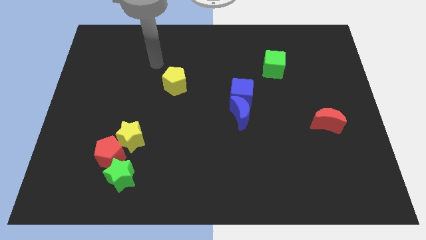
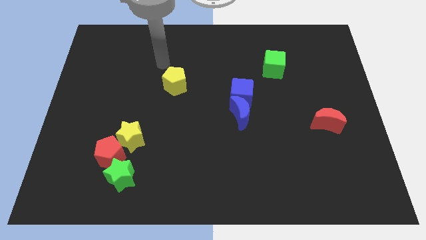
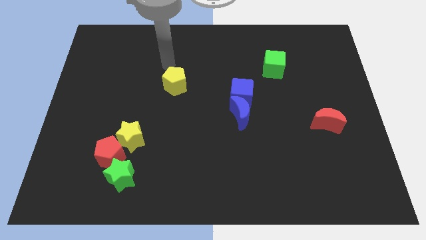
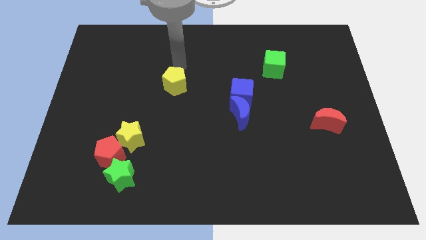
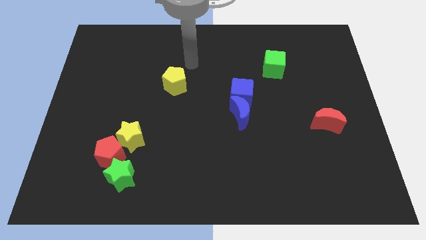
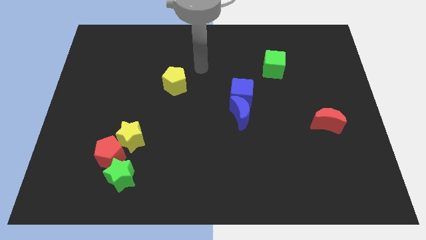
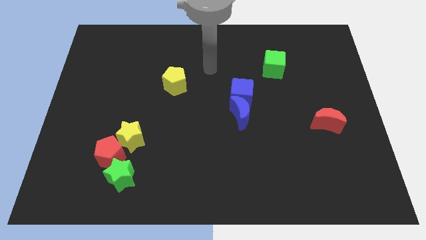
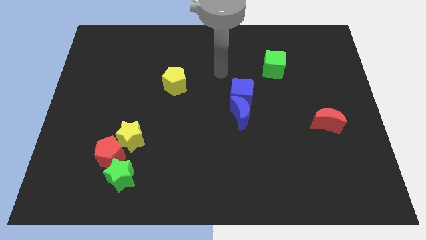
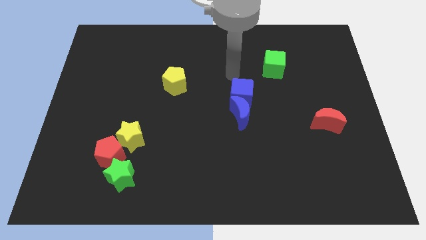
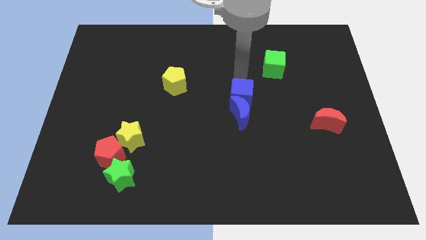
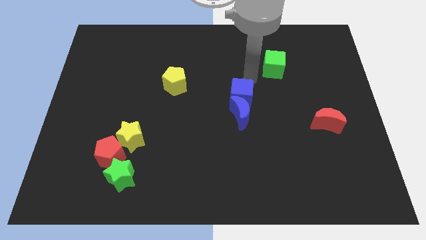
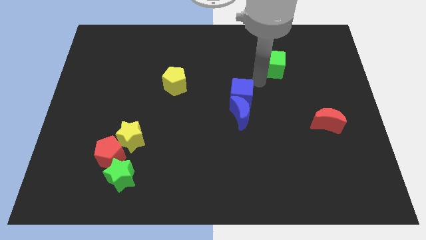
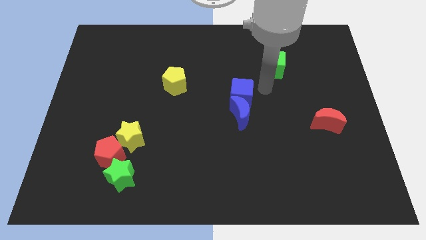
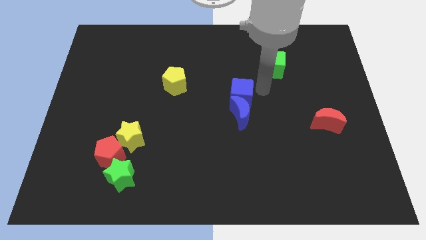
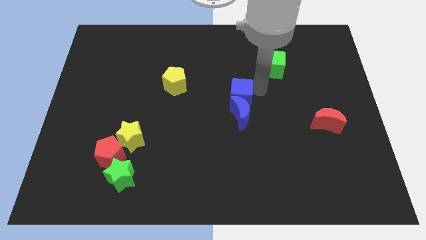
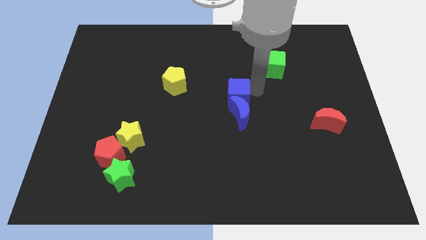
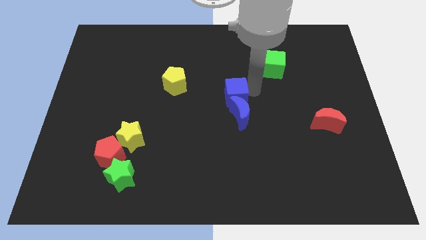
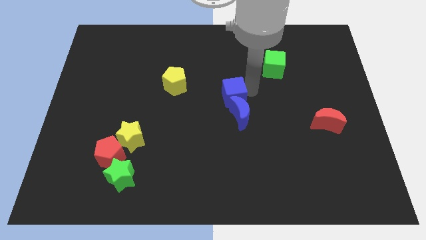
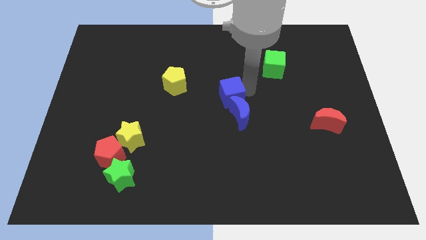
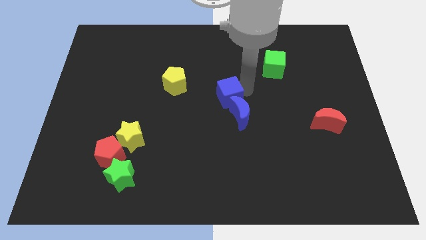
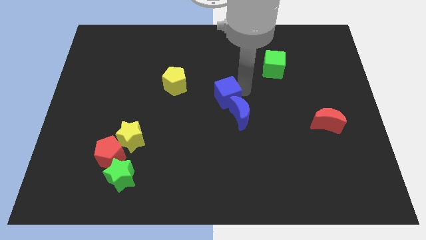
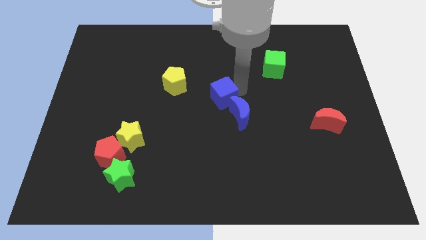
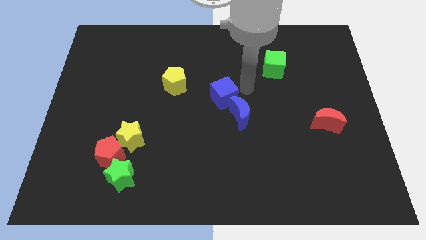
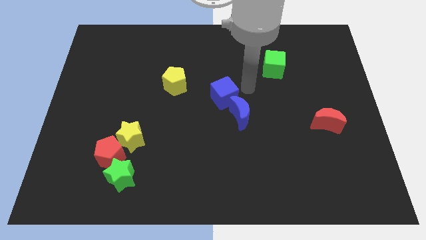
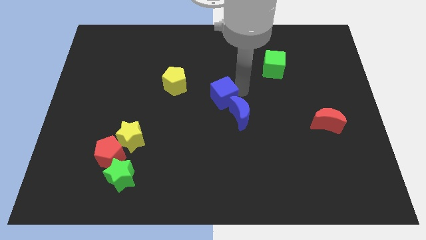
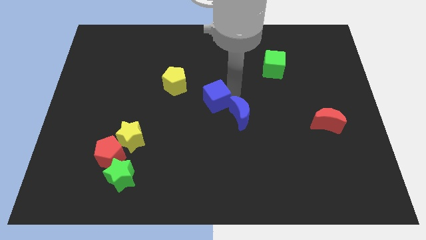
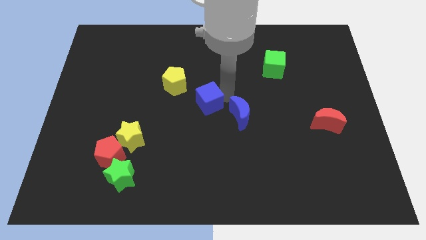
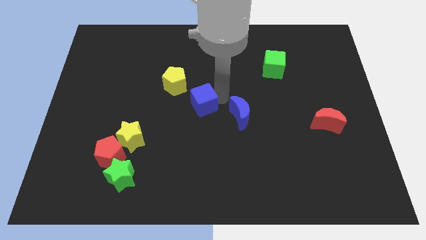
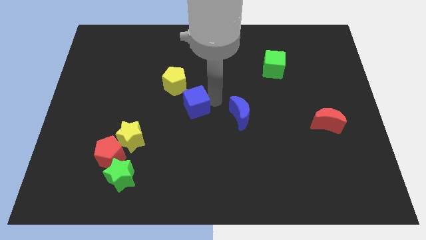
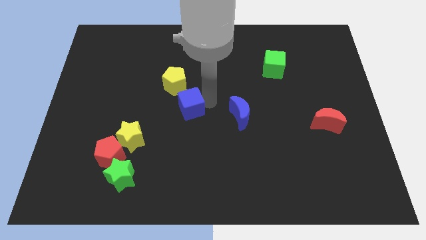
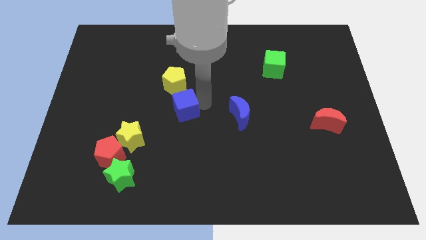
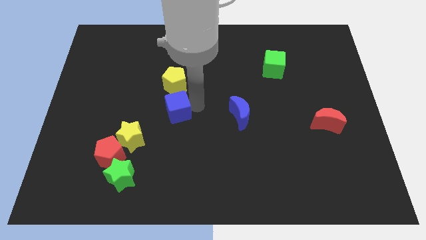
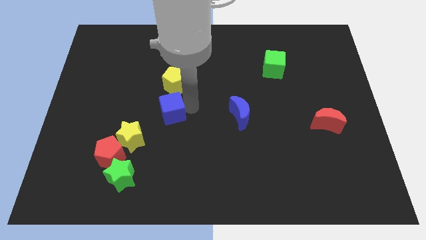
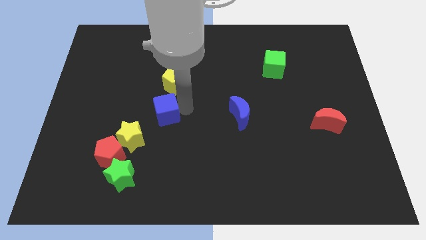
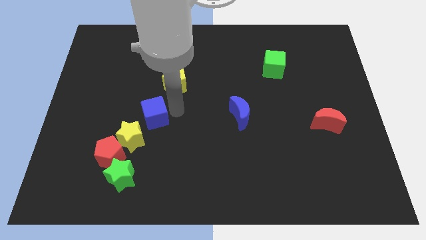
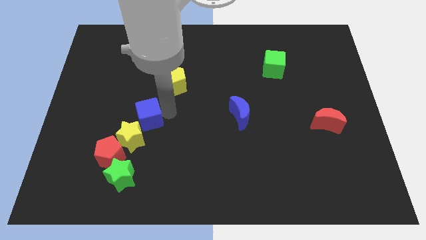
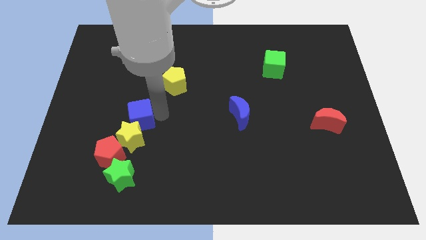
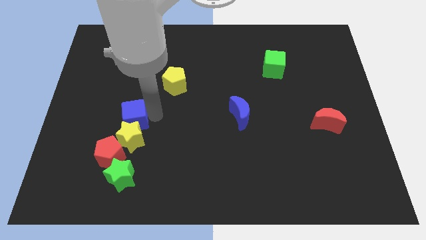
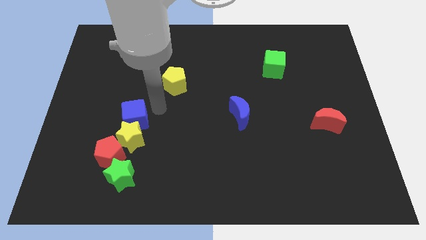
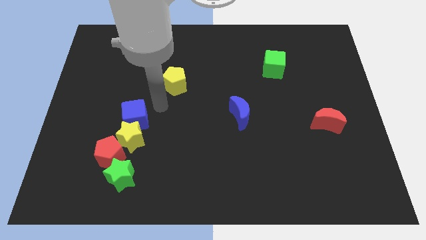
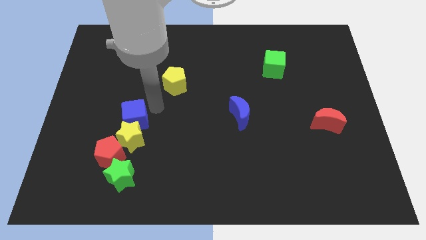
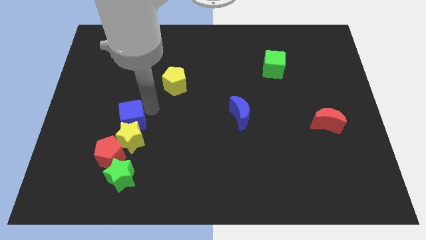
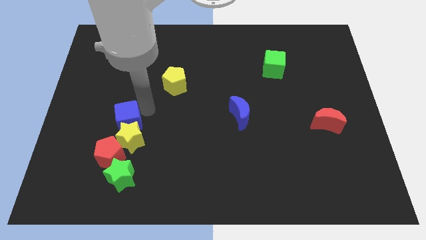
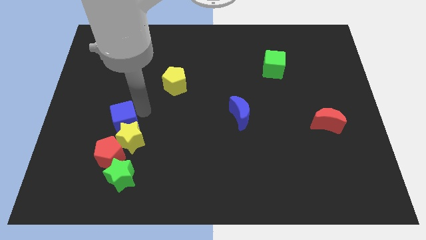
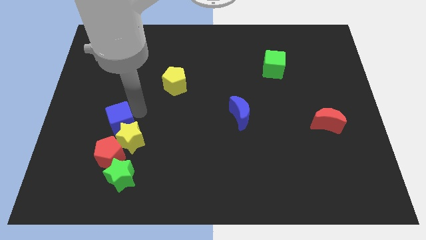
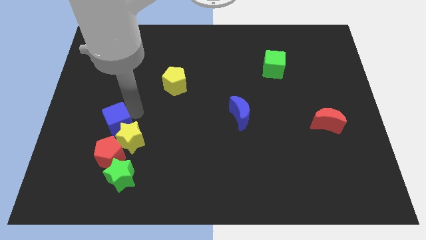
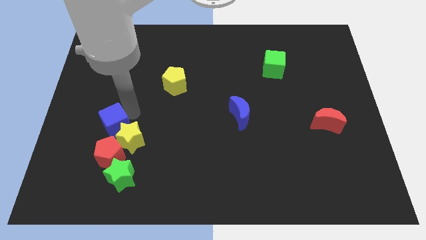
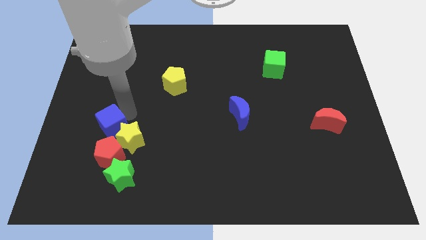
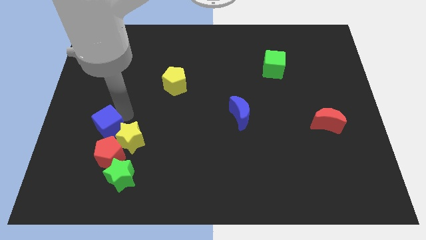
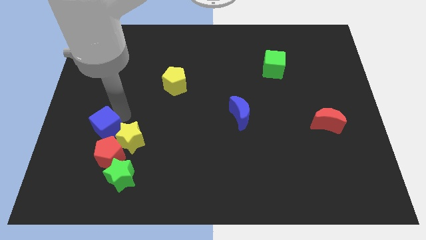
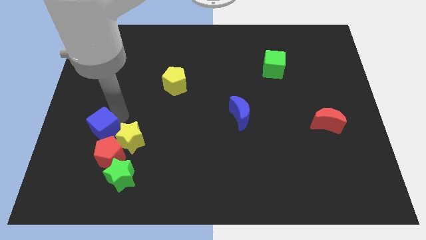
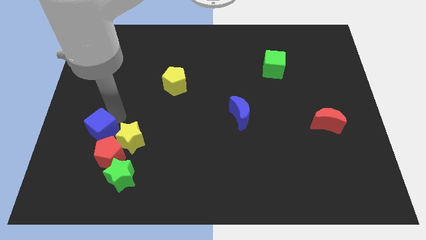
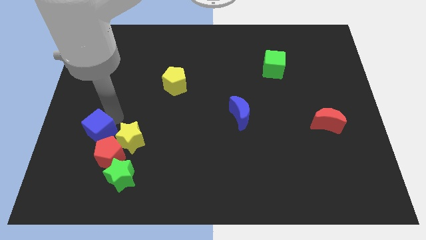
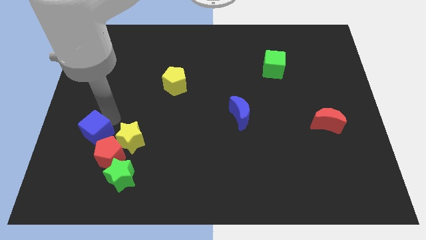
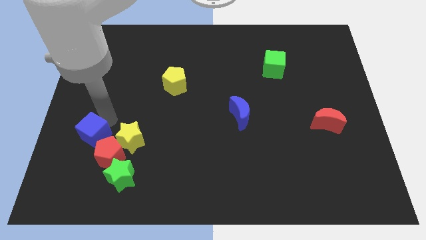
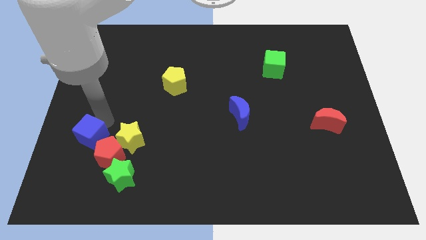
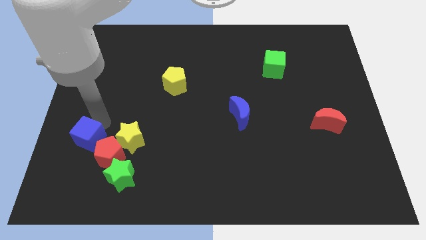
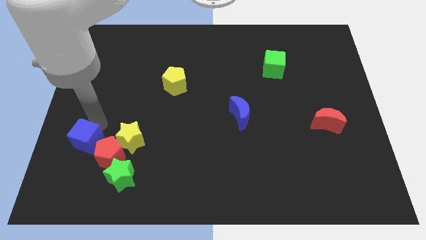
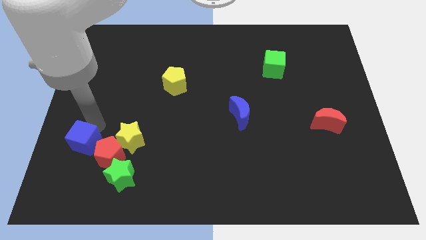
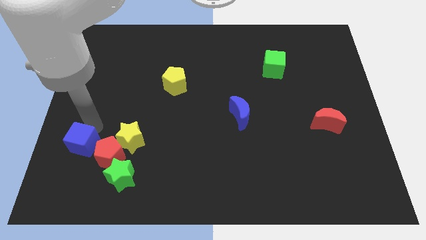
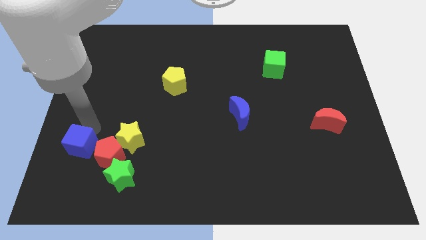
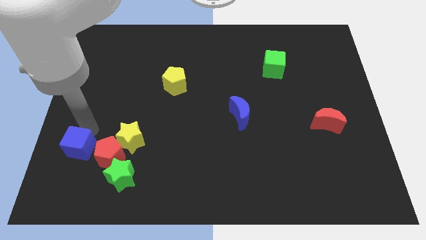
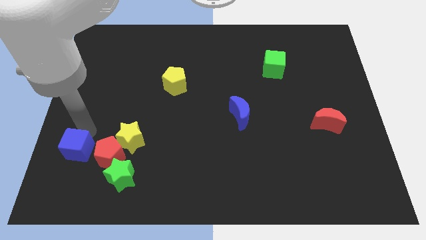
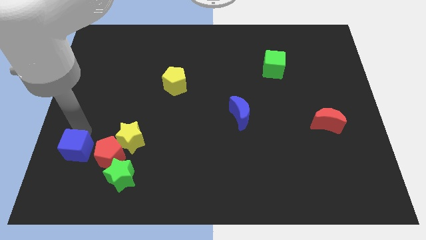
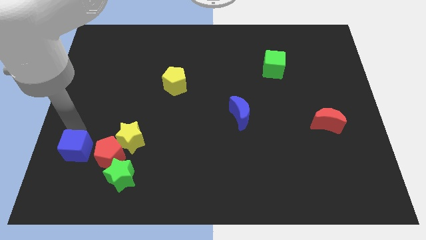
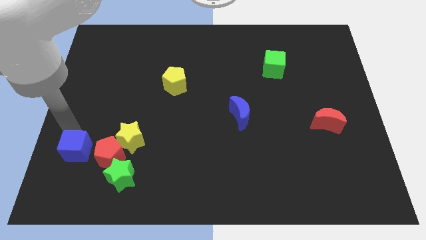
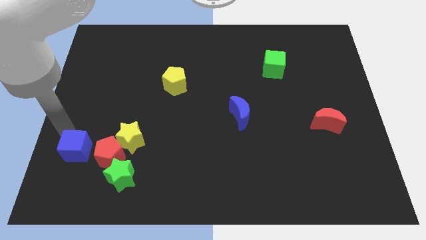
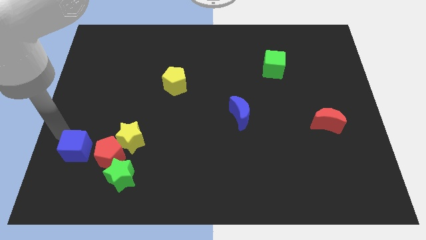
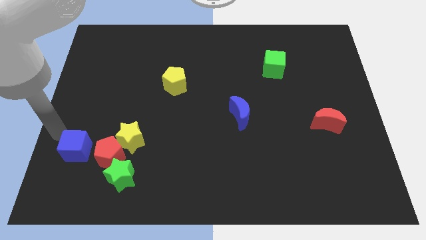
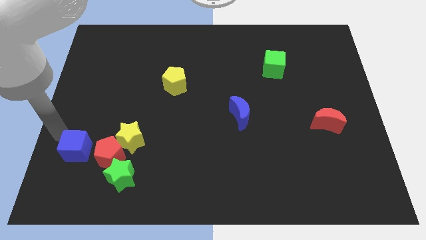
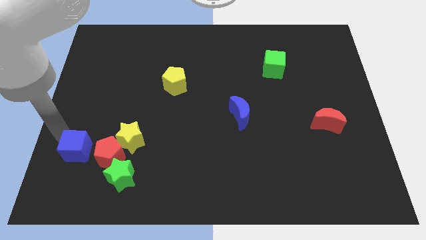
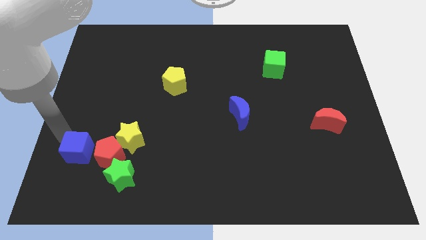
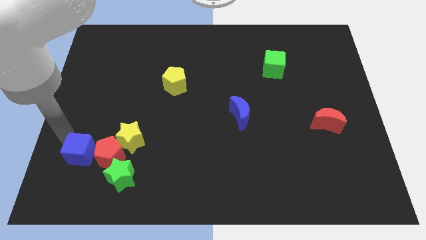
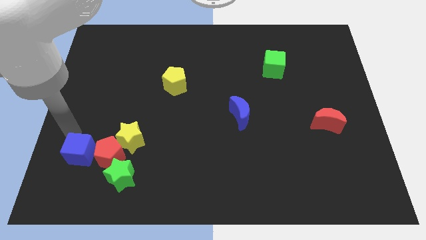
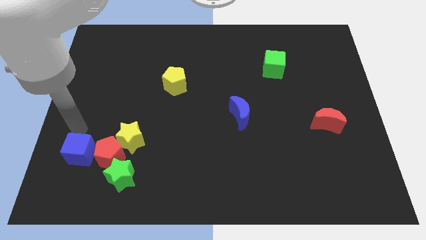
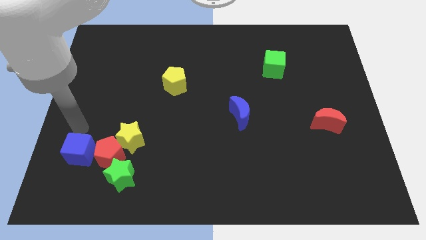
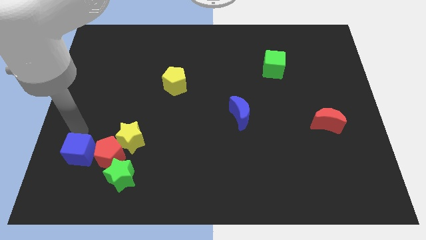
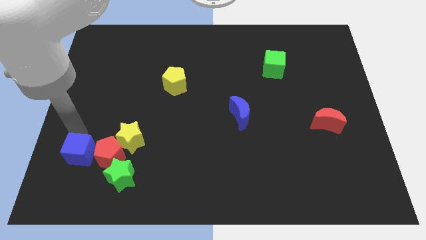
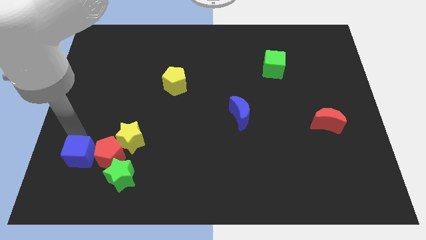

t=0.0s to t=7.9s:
push the blue cube to the bottom left of the red pentagon
